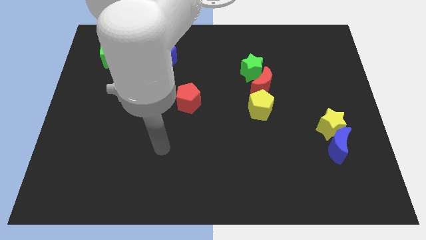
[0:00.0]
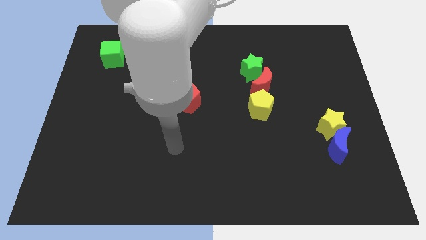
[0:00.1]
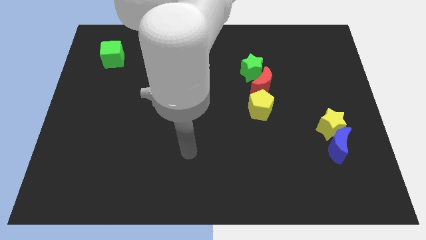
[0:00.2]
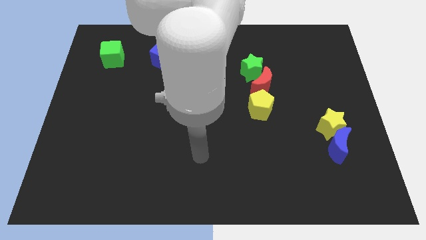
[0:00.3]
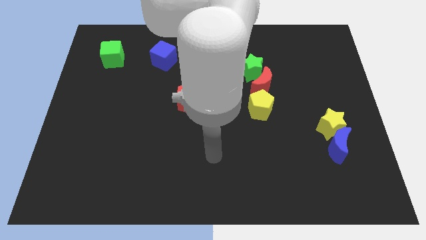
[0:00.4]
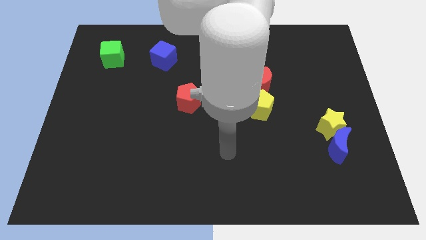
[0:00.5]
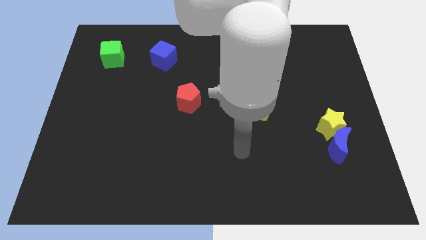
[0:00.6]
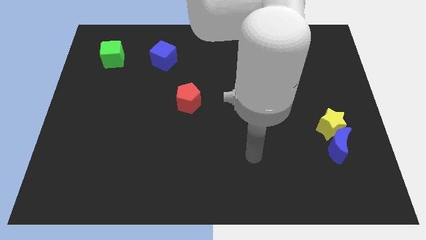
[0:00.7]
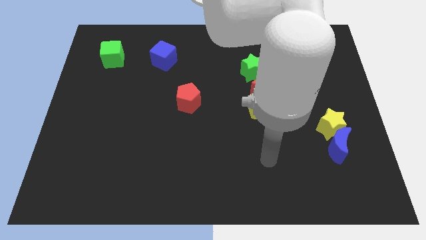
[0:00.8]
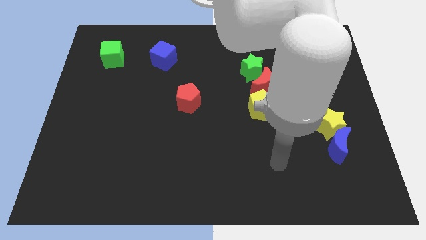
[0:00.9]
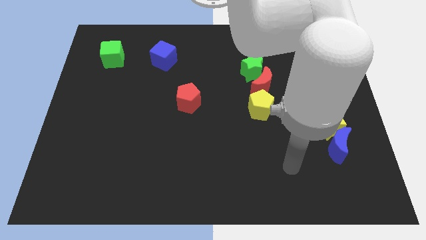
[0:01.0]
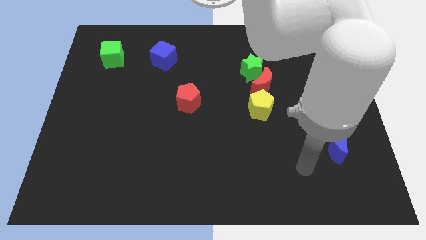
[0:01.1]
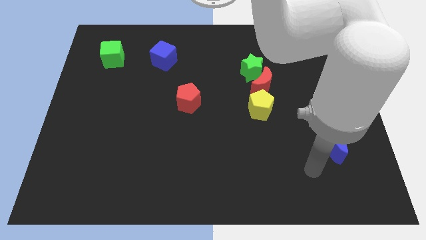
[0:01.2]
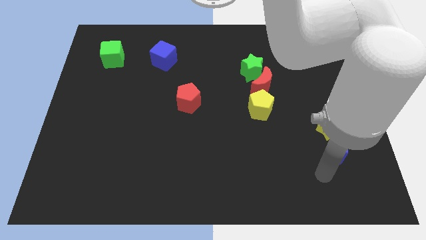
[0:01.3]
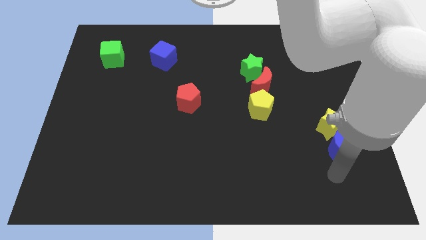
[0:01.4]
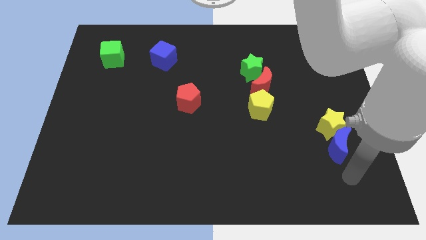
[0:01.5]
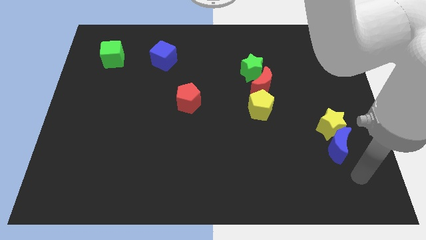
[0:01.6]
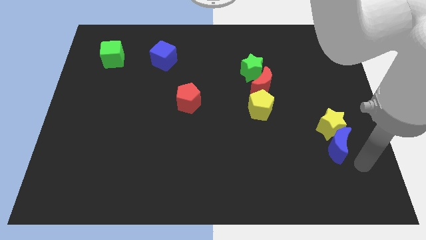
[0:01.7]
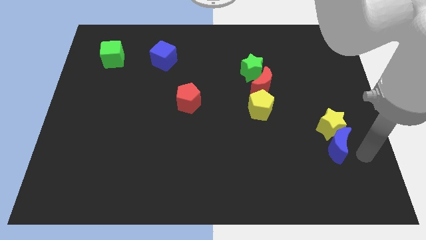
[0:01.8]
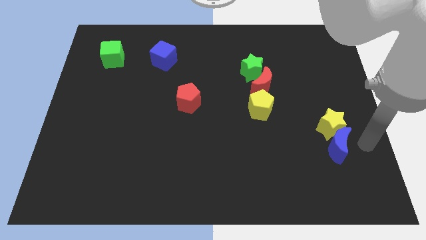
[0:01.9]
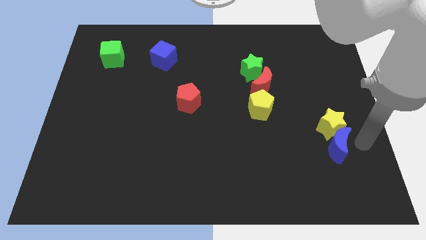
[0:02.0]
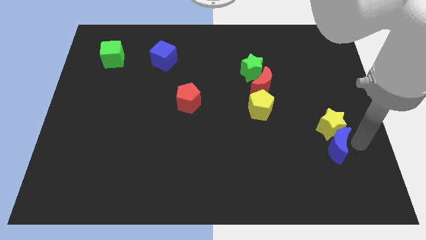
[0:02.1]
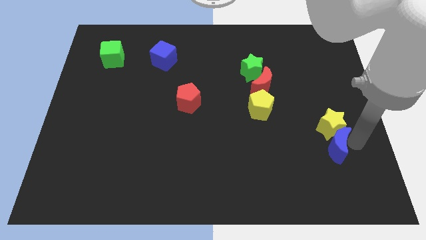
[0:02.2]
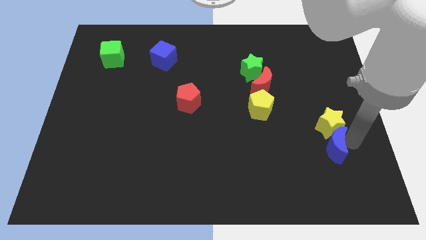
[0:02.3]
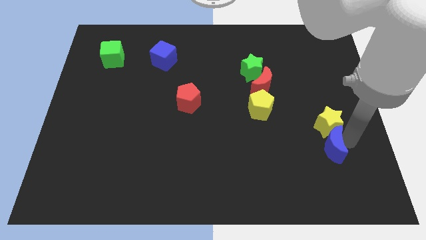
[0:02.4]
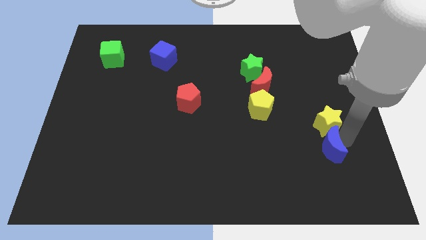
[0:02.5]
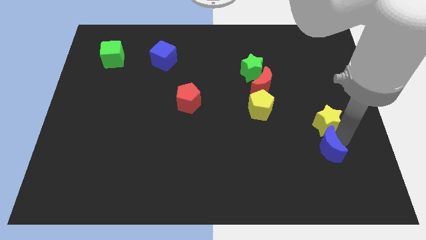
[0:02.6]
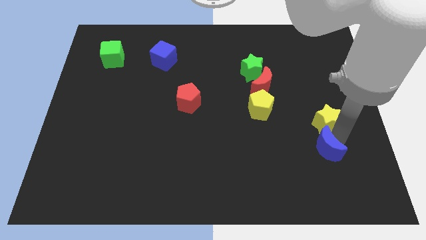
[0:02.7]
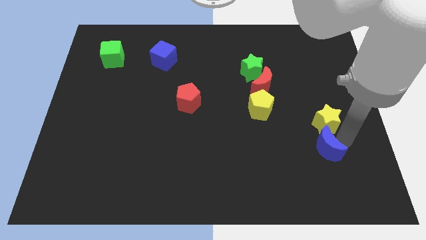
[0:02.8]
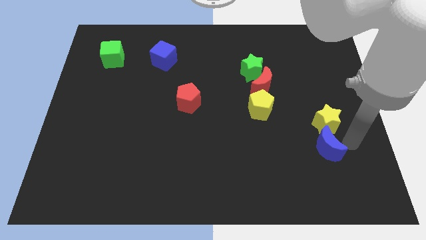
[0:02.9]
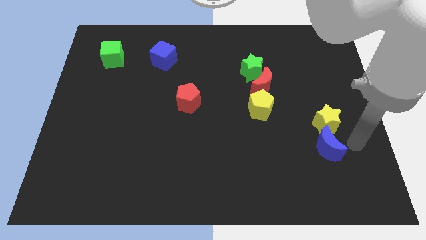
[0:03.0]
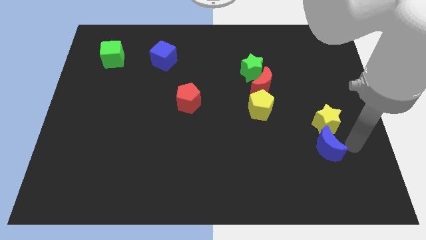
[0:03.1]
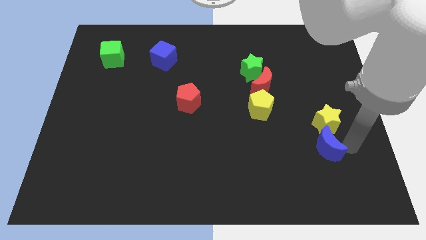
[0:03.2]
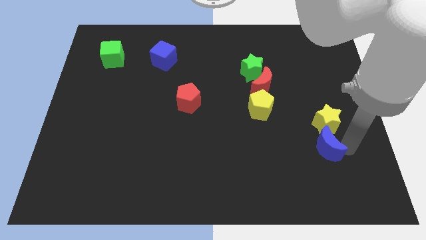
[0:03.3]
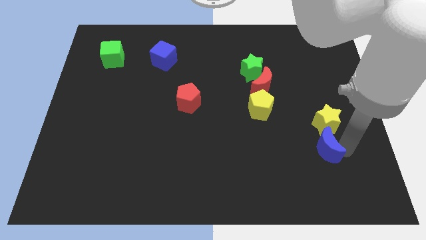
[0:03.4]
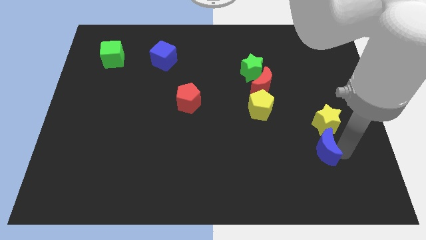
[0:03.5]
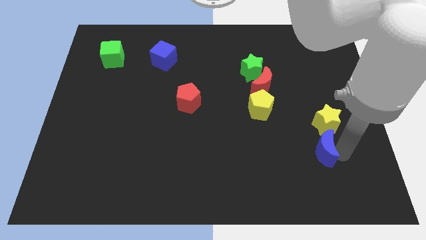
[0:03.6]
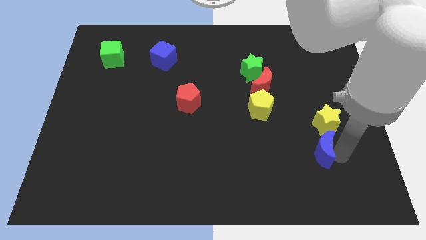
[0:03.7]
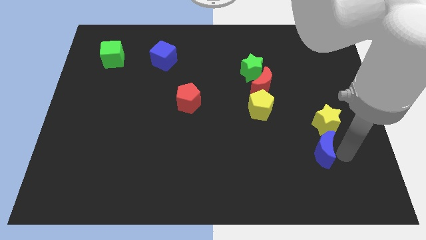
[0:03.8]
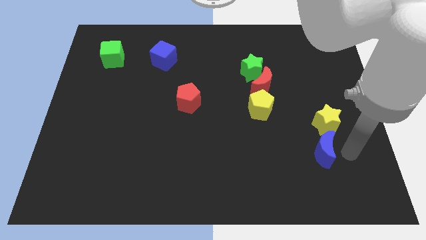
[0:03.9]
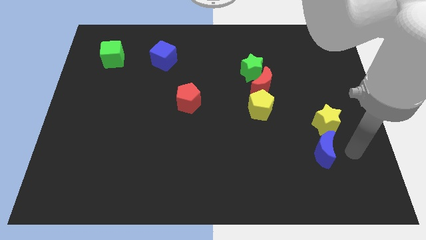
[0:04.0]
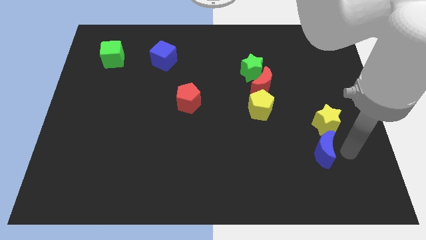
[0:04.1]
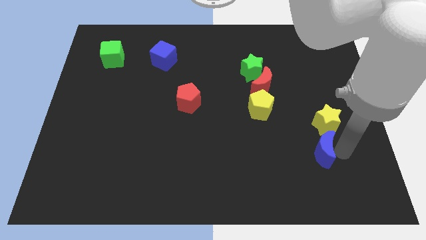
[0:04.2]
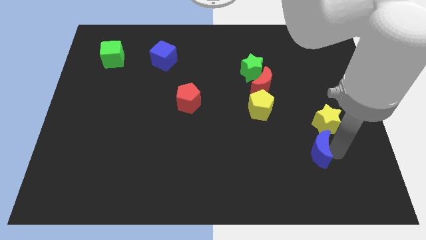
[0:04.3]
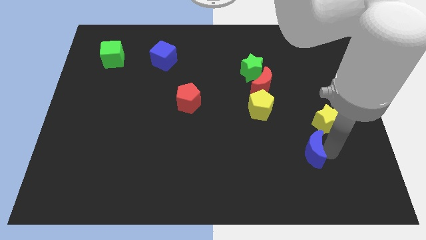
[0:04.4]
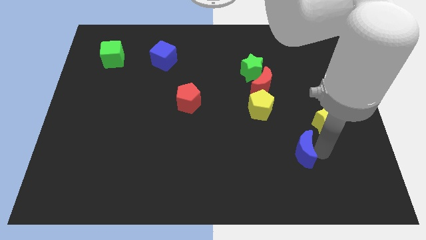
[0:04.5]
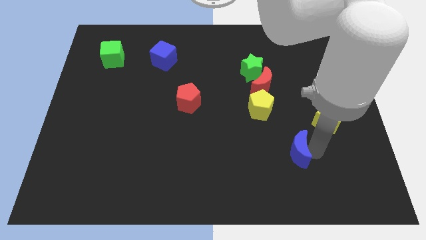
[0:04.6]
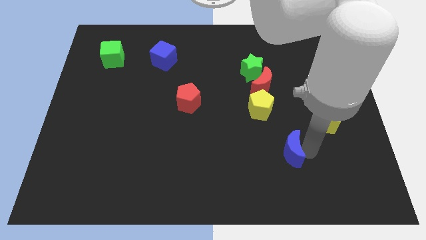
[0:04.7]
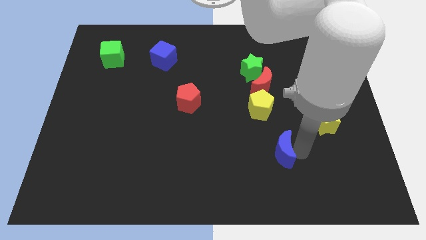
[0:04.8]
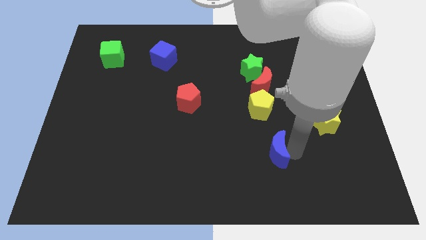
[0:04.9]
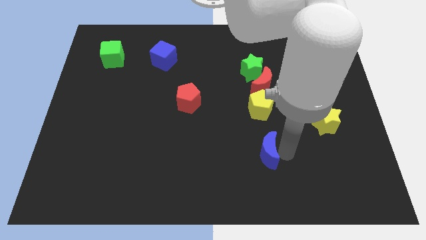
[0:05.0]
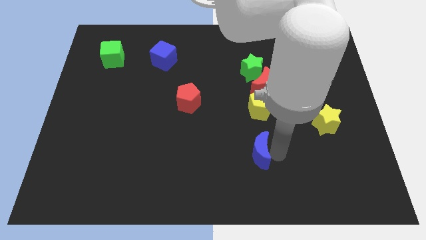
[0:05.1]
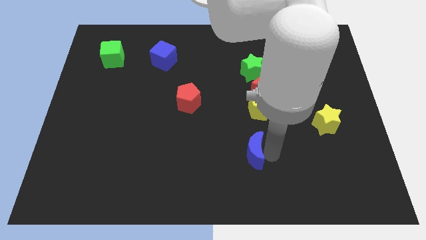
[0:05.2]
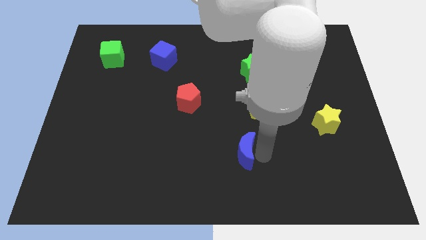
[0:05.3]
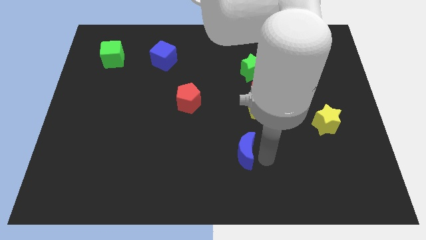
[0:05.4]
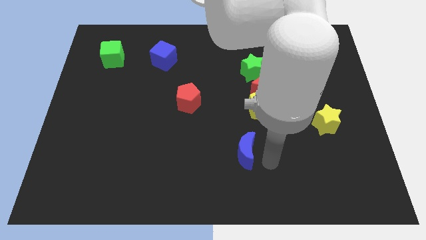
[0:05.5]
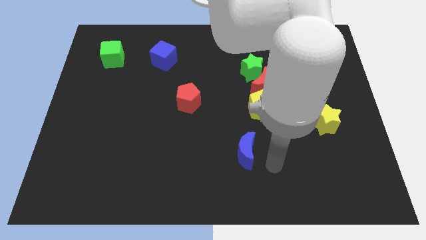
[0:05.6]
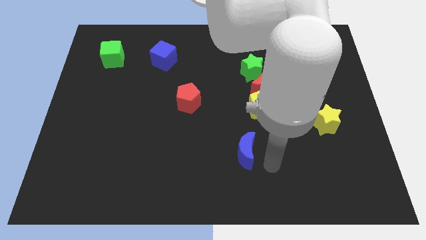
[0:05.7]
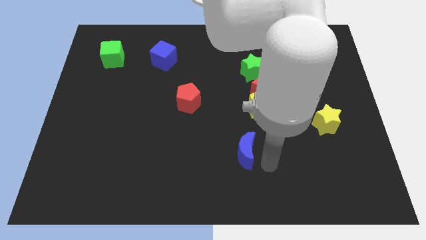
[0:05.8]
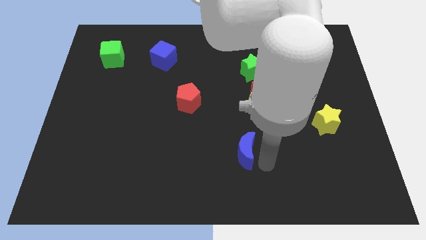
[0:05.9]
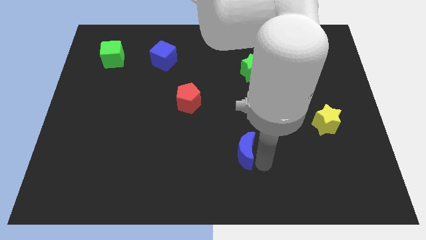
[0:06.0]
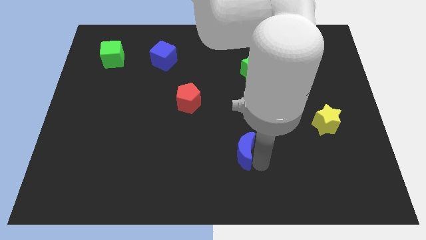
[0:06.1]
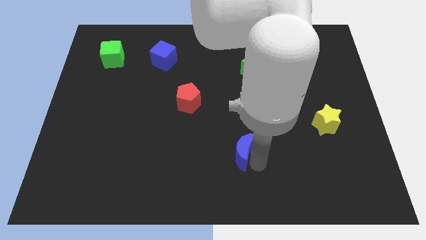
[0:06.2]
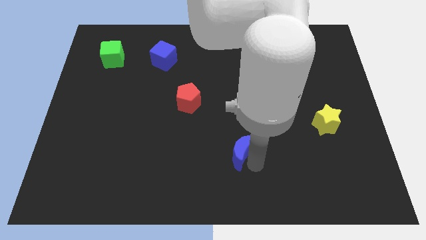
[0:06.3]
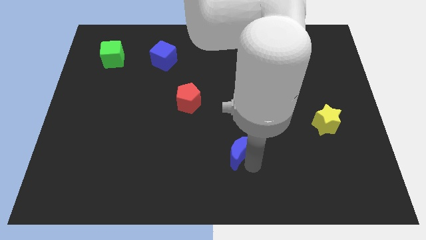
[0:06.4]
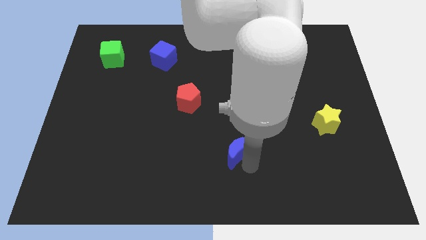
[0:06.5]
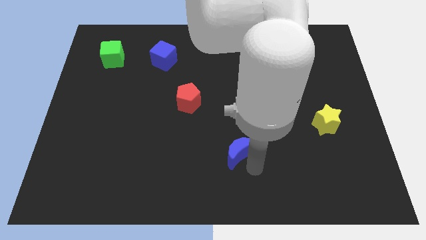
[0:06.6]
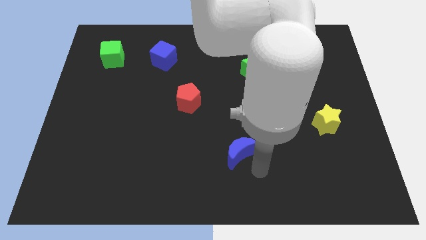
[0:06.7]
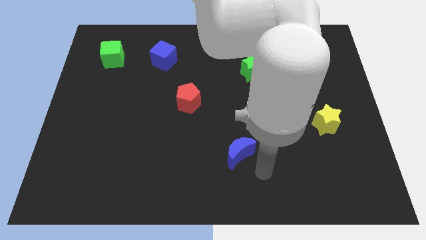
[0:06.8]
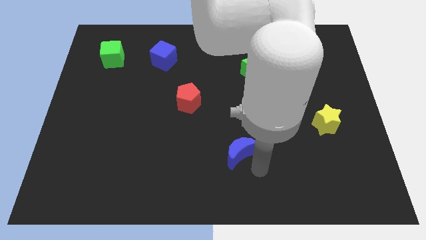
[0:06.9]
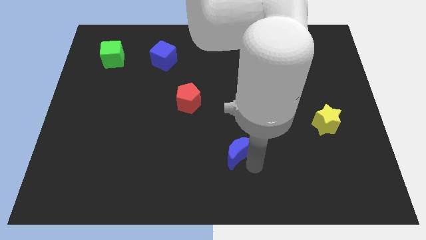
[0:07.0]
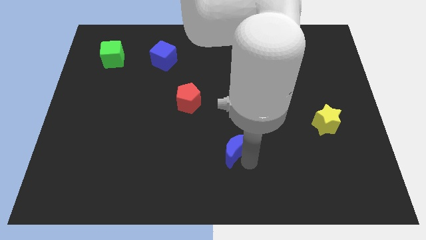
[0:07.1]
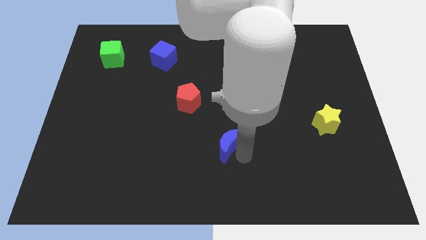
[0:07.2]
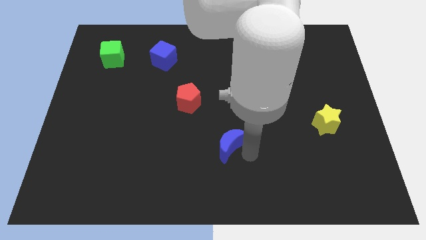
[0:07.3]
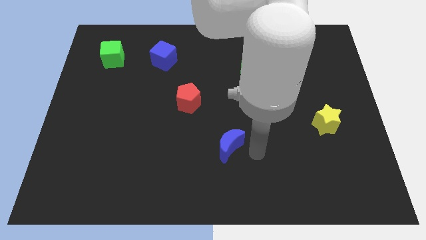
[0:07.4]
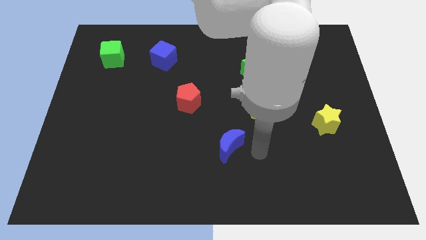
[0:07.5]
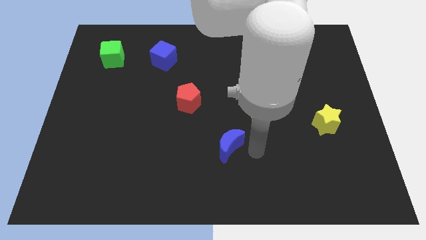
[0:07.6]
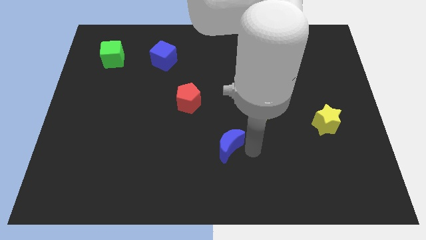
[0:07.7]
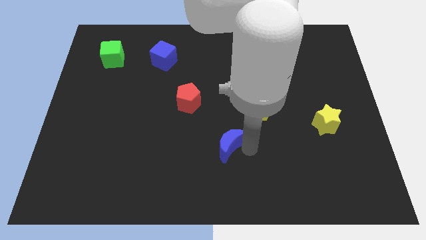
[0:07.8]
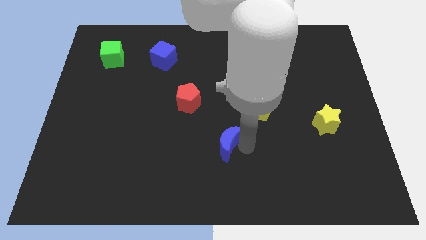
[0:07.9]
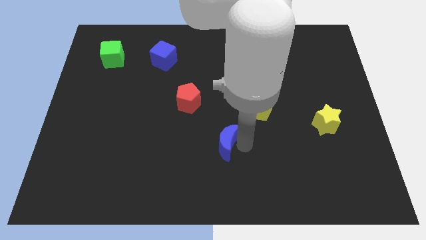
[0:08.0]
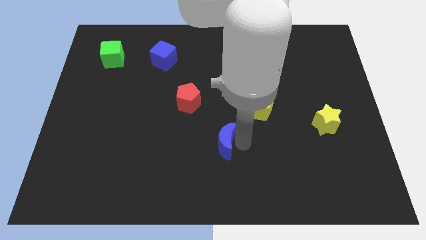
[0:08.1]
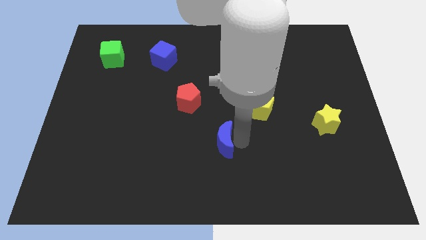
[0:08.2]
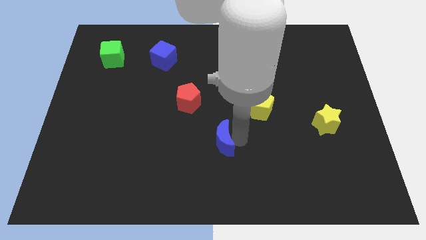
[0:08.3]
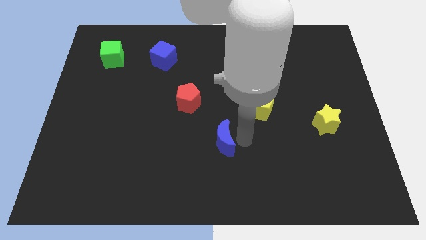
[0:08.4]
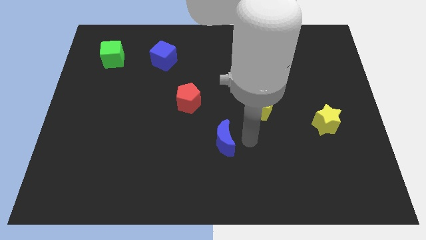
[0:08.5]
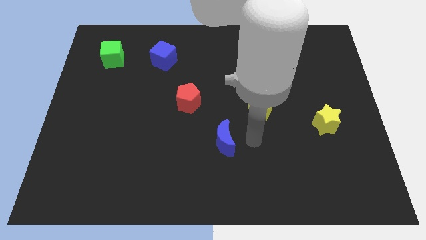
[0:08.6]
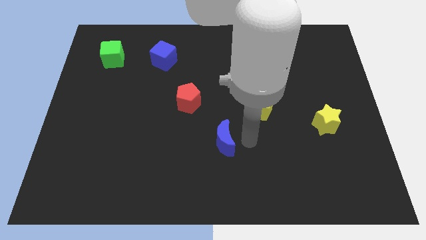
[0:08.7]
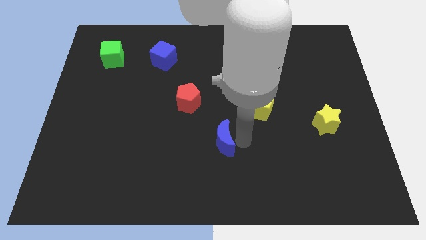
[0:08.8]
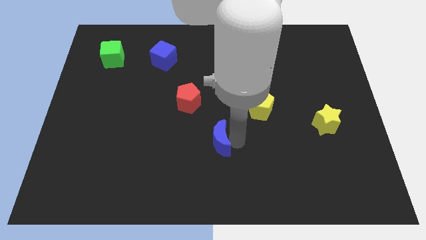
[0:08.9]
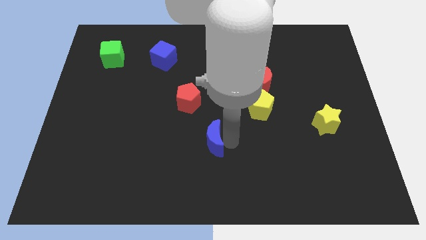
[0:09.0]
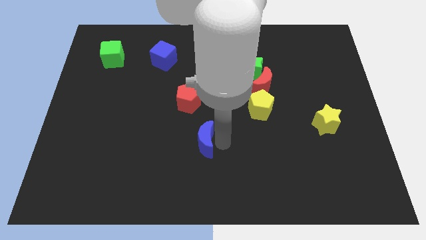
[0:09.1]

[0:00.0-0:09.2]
put the blue moon to the bottom side of the red pentagon
